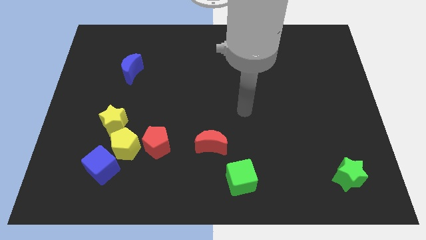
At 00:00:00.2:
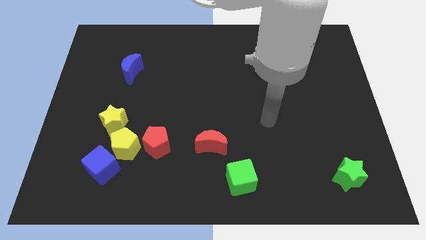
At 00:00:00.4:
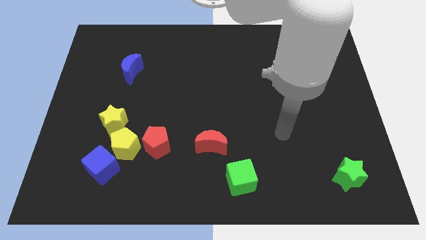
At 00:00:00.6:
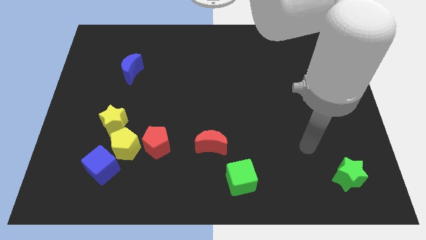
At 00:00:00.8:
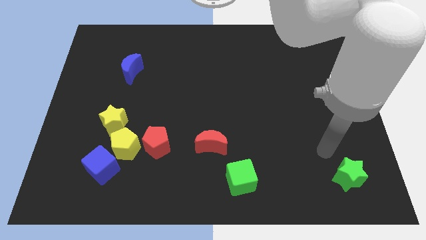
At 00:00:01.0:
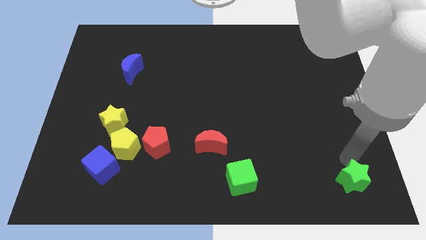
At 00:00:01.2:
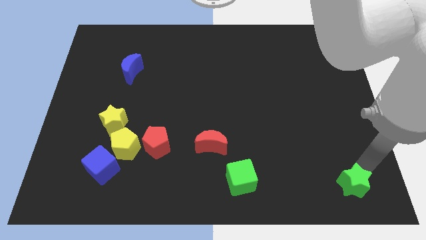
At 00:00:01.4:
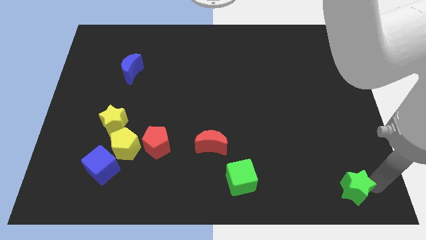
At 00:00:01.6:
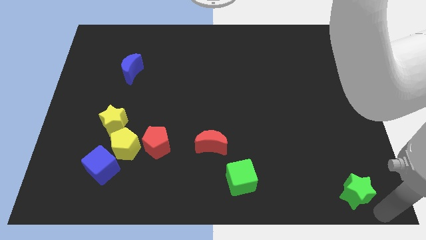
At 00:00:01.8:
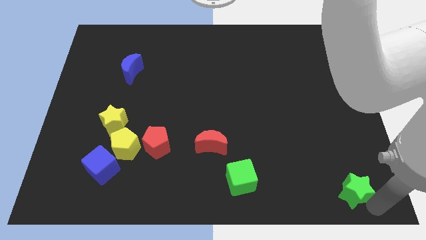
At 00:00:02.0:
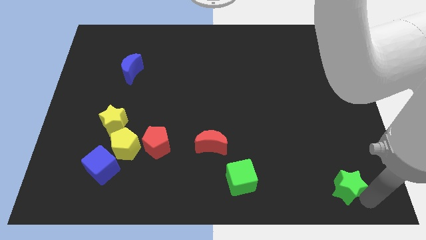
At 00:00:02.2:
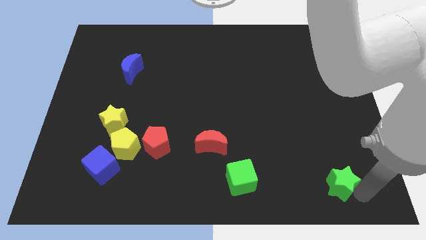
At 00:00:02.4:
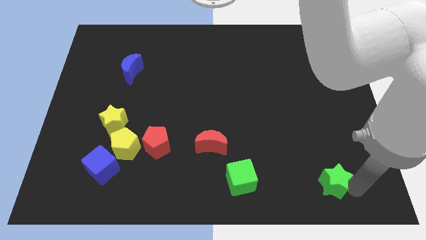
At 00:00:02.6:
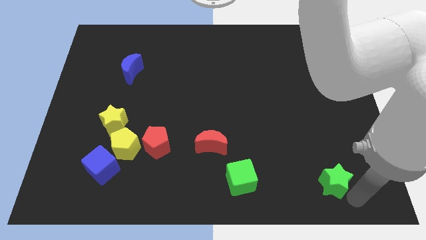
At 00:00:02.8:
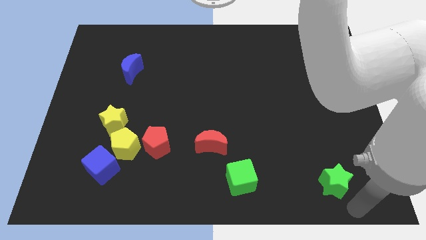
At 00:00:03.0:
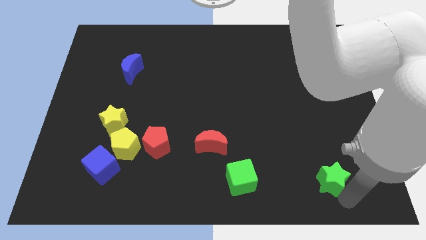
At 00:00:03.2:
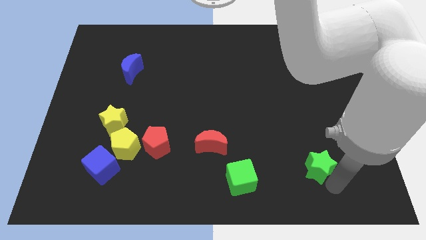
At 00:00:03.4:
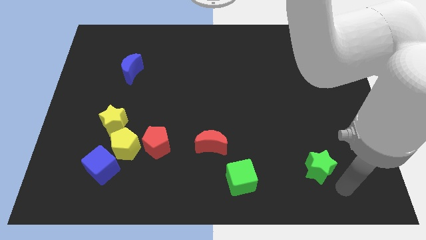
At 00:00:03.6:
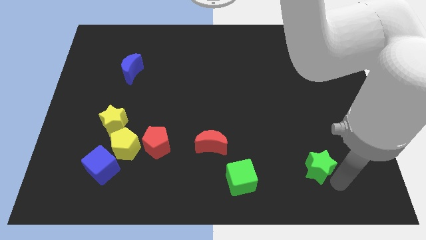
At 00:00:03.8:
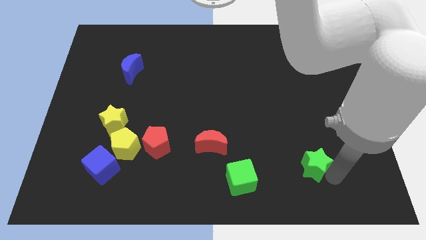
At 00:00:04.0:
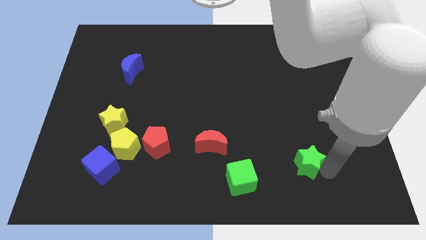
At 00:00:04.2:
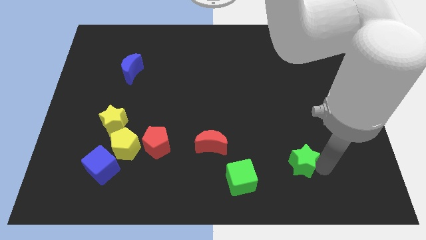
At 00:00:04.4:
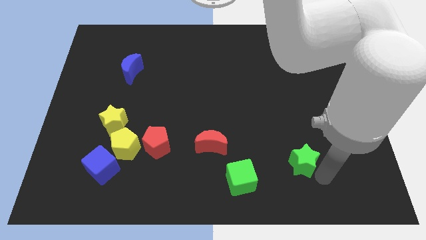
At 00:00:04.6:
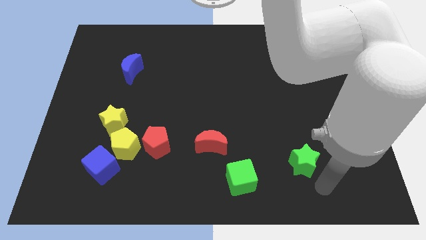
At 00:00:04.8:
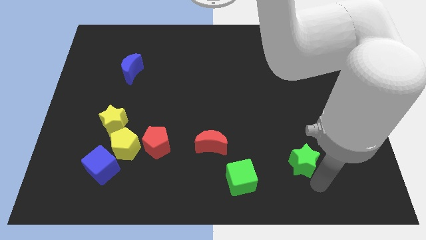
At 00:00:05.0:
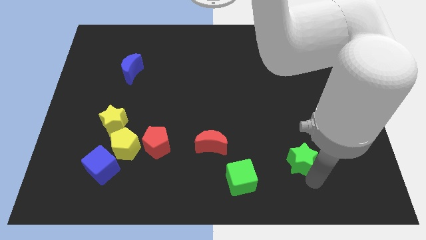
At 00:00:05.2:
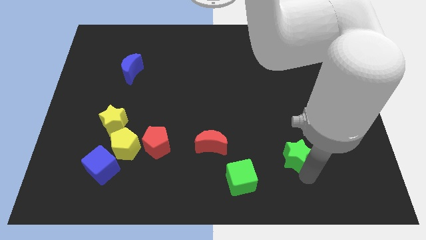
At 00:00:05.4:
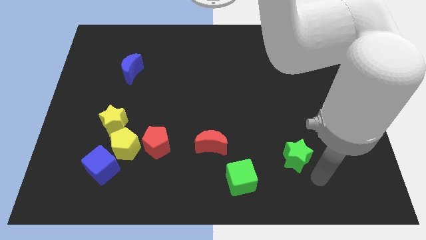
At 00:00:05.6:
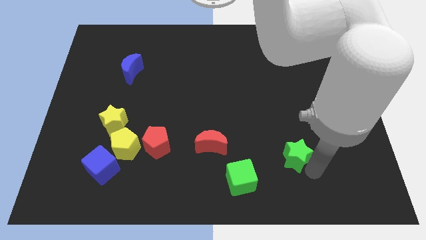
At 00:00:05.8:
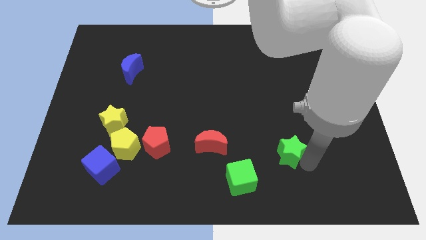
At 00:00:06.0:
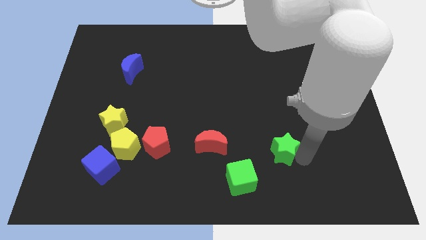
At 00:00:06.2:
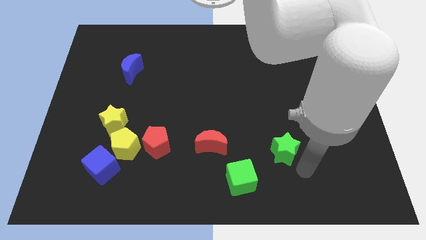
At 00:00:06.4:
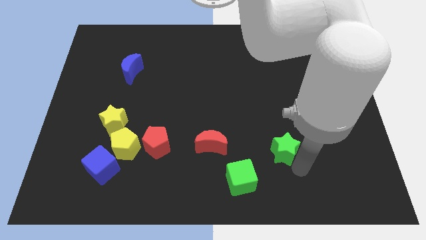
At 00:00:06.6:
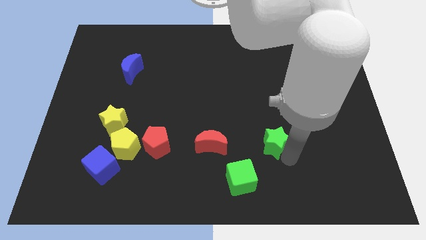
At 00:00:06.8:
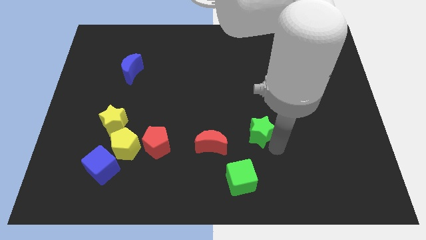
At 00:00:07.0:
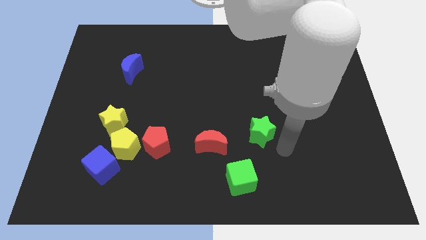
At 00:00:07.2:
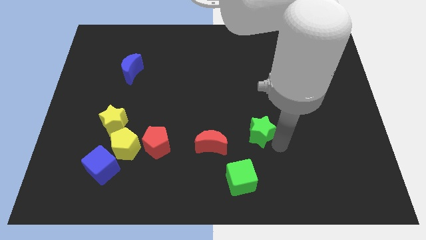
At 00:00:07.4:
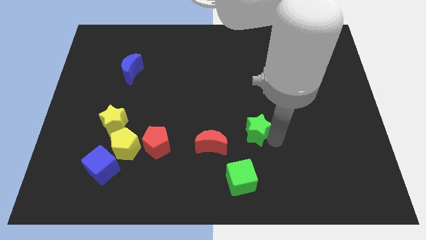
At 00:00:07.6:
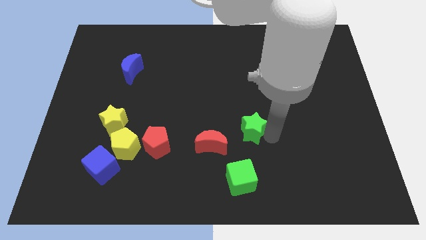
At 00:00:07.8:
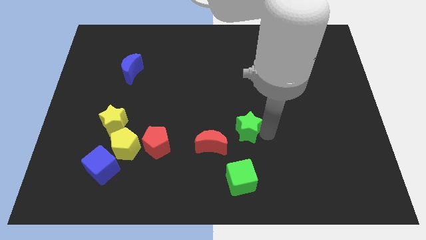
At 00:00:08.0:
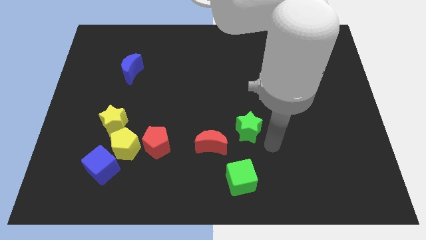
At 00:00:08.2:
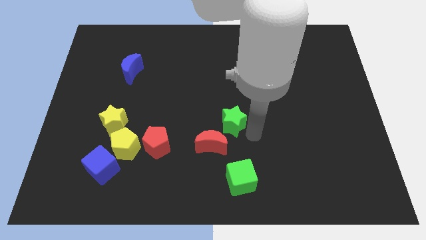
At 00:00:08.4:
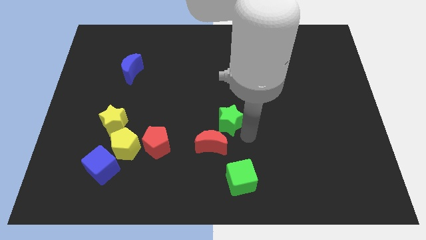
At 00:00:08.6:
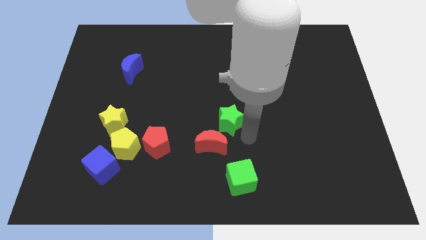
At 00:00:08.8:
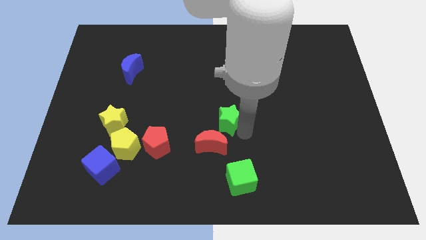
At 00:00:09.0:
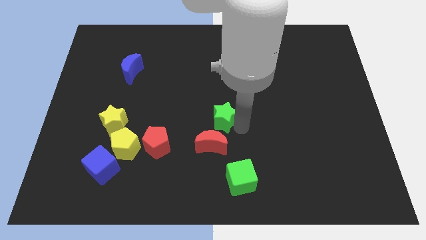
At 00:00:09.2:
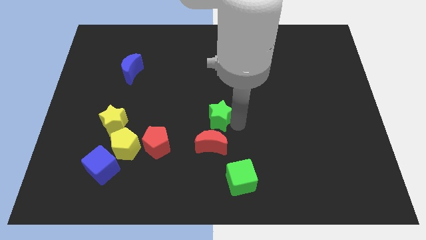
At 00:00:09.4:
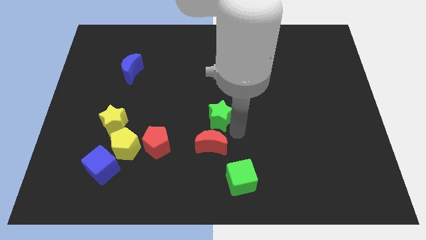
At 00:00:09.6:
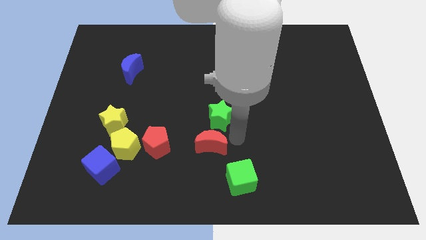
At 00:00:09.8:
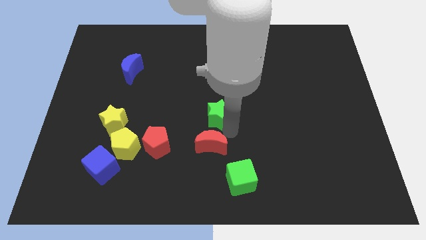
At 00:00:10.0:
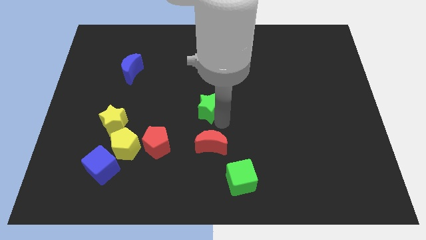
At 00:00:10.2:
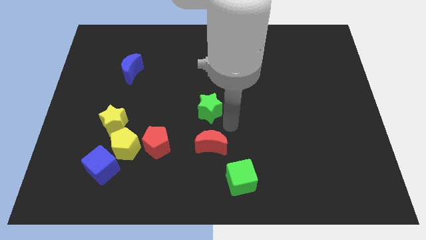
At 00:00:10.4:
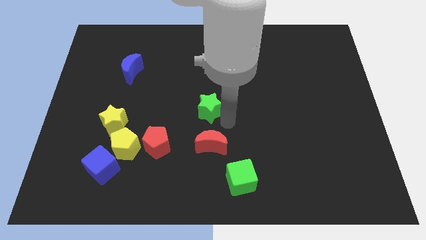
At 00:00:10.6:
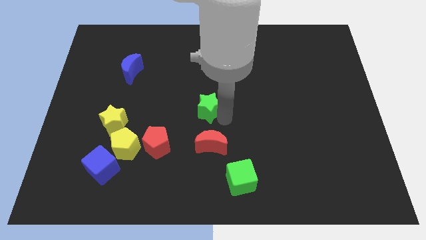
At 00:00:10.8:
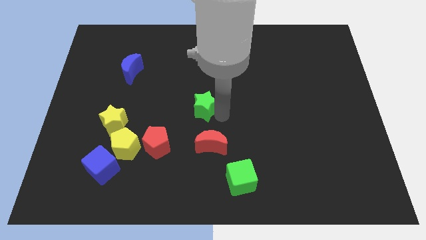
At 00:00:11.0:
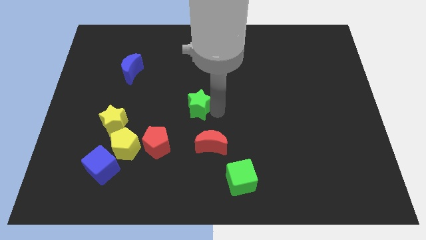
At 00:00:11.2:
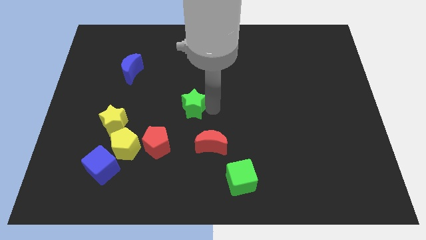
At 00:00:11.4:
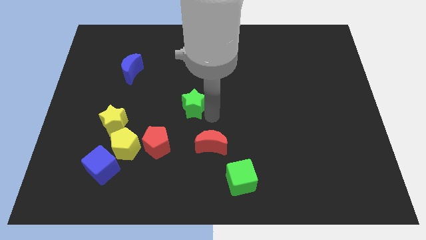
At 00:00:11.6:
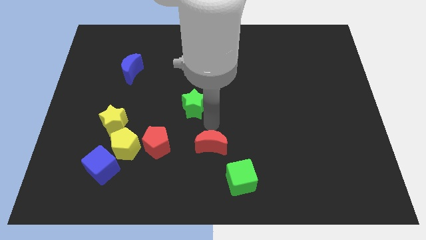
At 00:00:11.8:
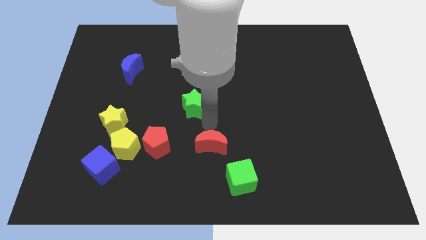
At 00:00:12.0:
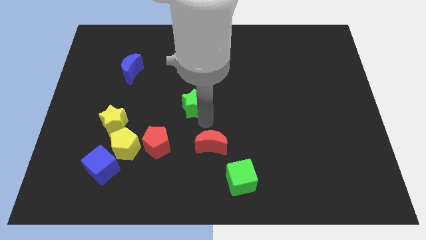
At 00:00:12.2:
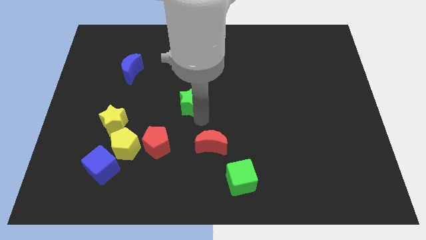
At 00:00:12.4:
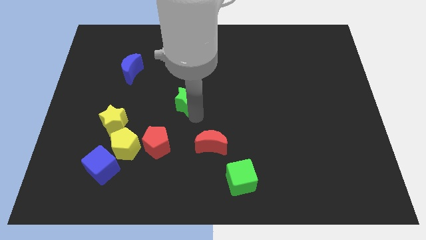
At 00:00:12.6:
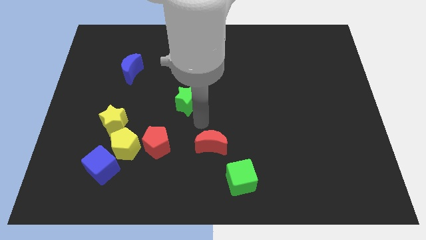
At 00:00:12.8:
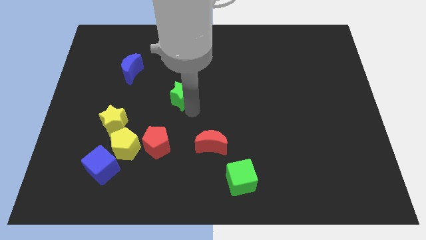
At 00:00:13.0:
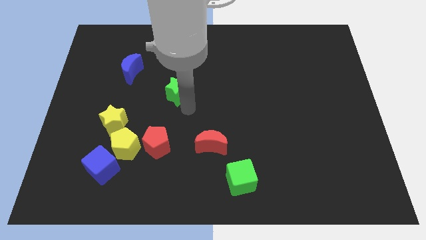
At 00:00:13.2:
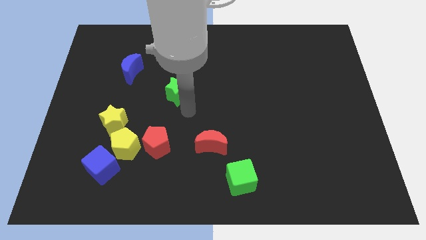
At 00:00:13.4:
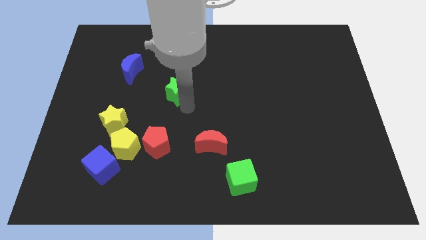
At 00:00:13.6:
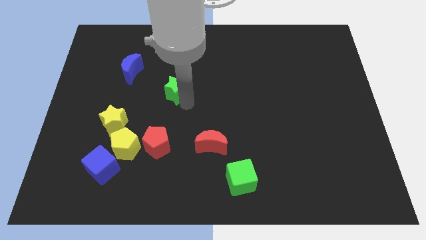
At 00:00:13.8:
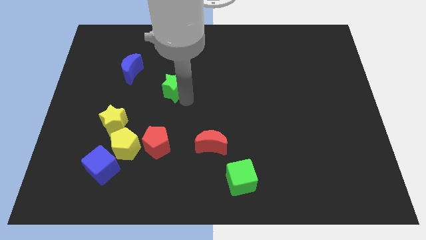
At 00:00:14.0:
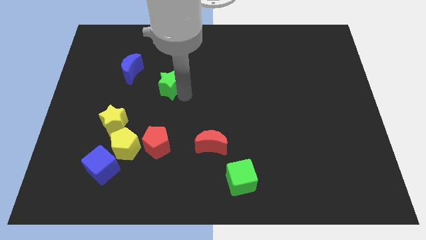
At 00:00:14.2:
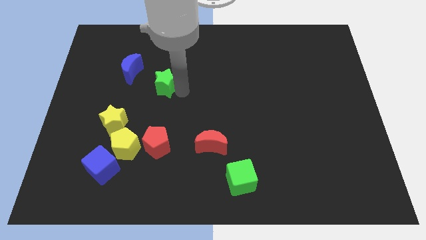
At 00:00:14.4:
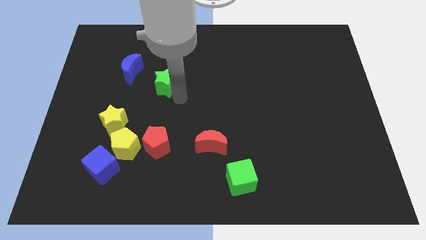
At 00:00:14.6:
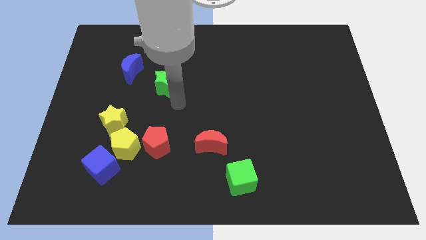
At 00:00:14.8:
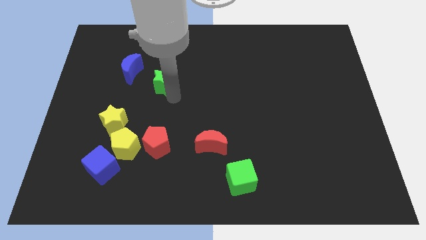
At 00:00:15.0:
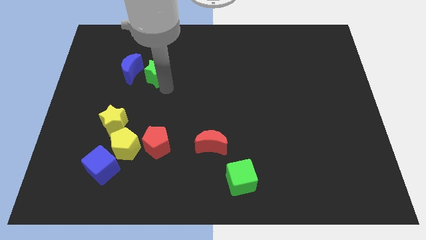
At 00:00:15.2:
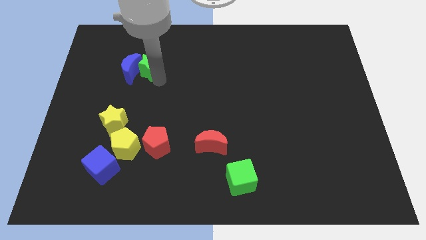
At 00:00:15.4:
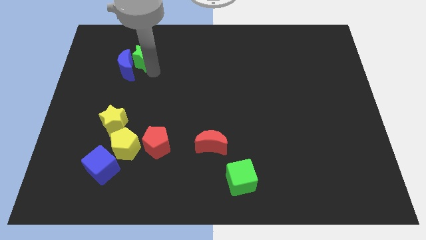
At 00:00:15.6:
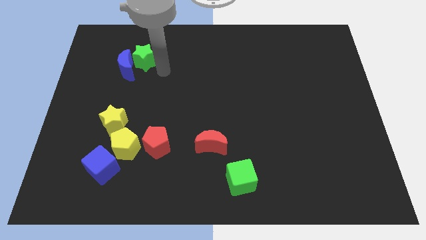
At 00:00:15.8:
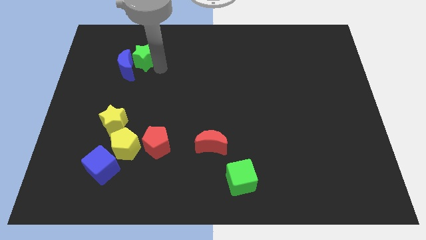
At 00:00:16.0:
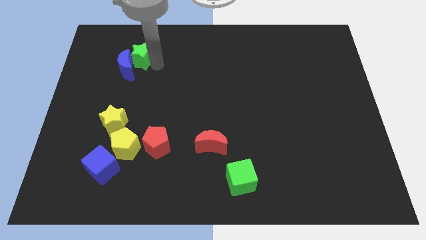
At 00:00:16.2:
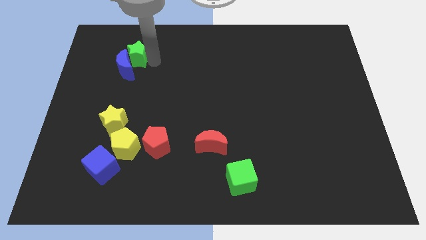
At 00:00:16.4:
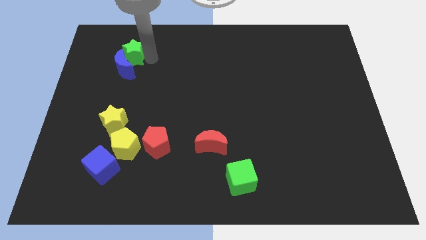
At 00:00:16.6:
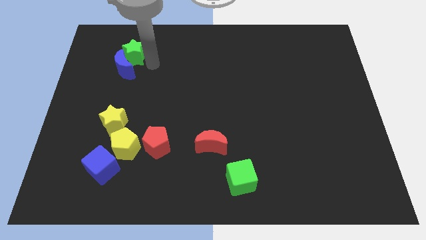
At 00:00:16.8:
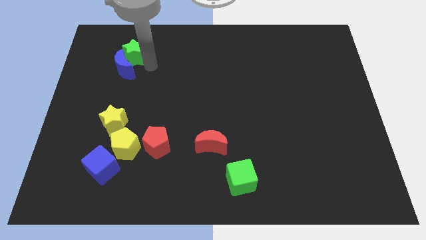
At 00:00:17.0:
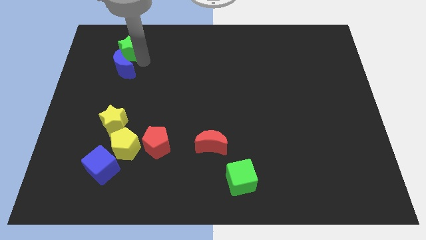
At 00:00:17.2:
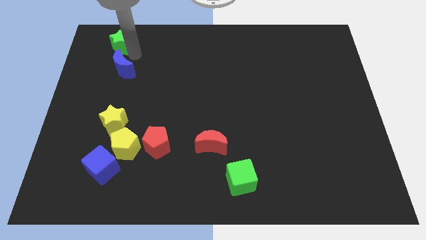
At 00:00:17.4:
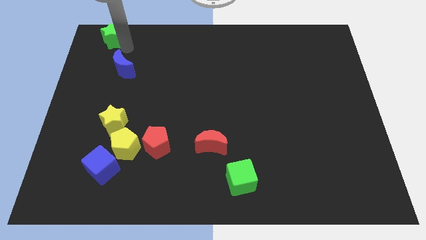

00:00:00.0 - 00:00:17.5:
move the green star to the top left
